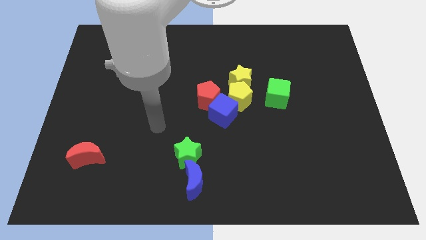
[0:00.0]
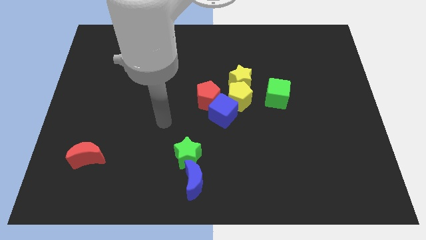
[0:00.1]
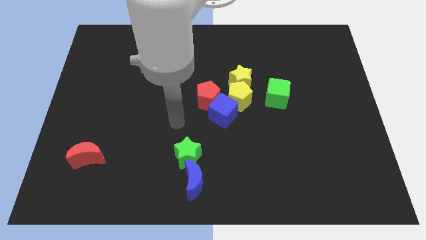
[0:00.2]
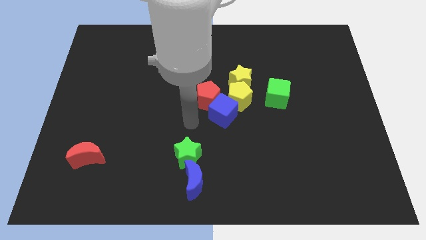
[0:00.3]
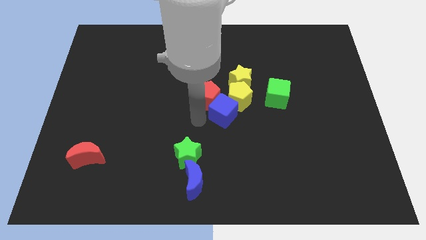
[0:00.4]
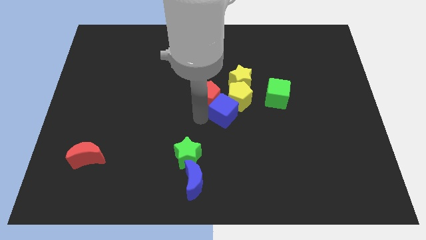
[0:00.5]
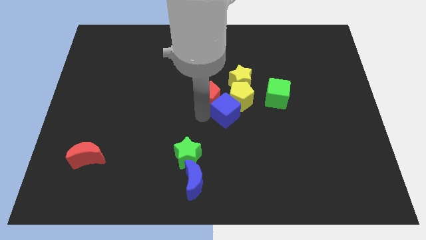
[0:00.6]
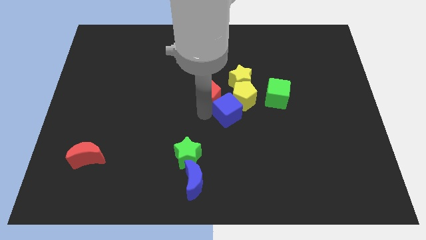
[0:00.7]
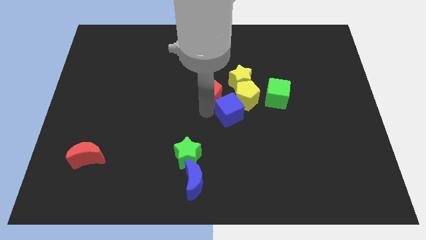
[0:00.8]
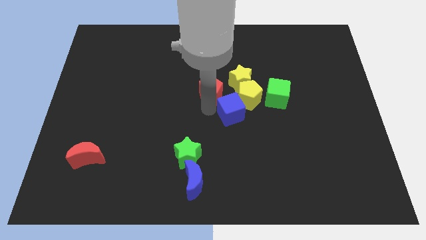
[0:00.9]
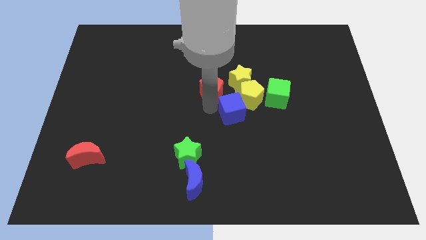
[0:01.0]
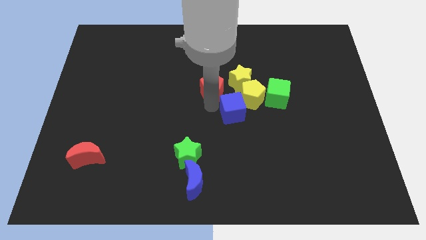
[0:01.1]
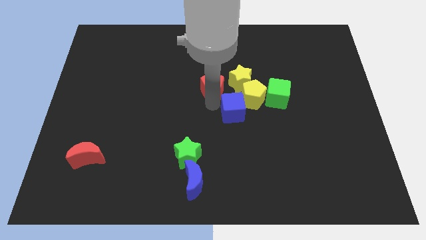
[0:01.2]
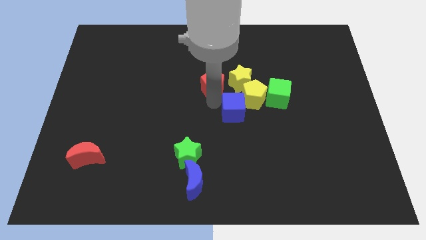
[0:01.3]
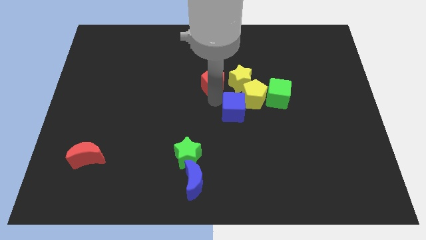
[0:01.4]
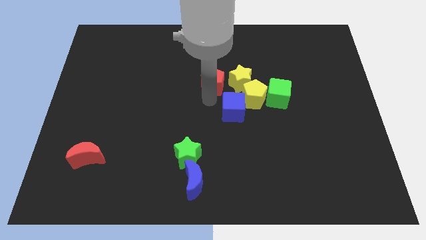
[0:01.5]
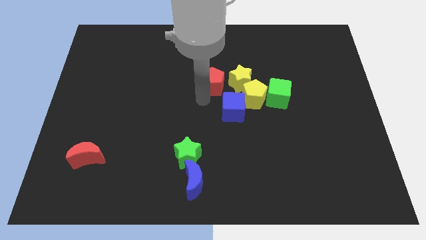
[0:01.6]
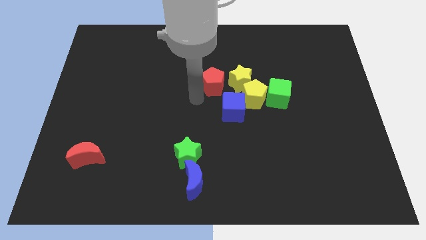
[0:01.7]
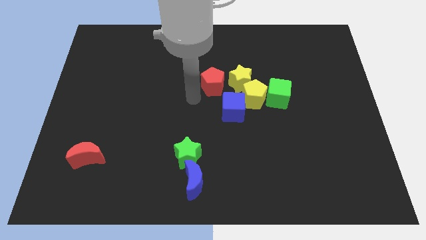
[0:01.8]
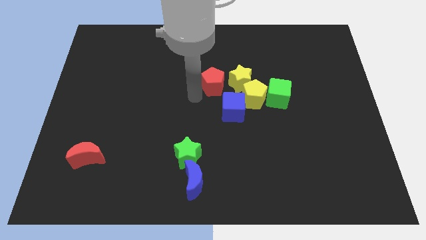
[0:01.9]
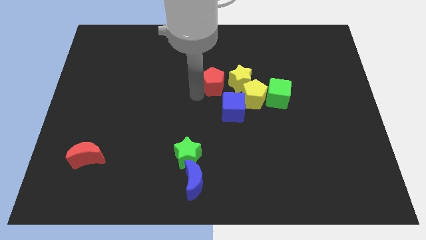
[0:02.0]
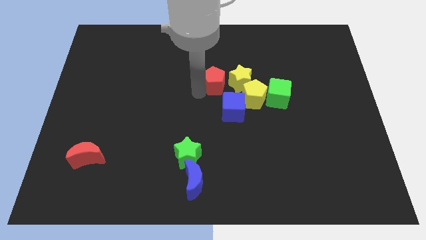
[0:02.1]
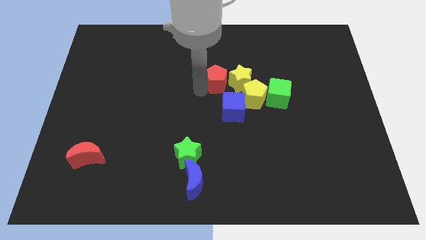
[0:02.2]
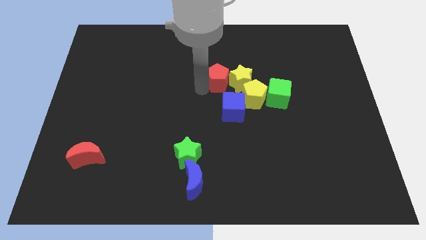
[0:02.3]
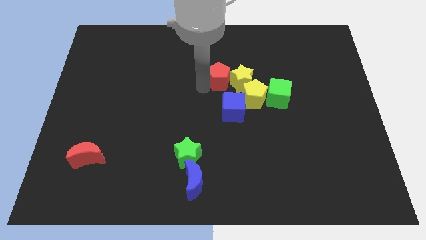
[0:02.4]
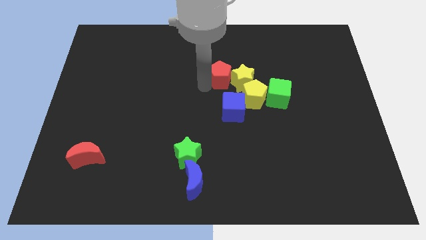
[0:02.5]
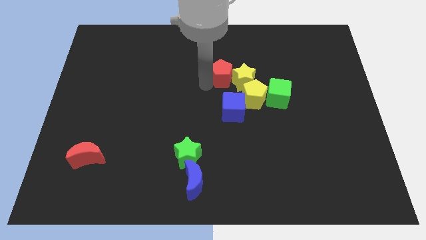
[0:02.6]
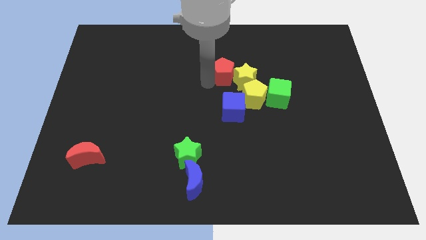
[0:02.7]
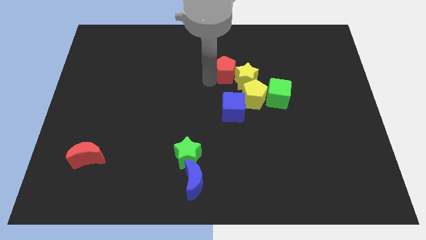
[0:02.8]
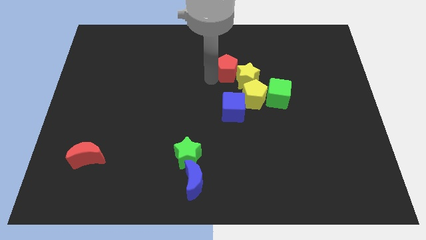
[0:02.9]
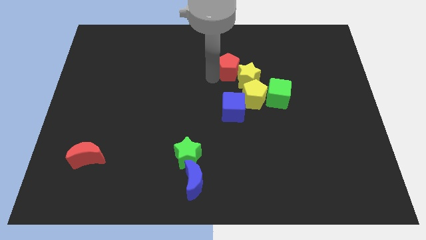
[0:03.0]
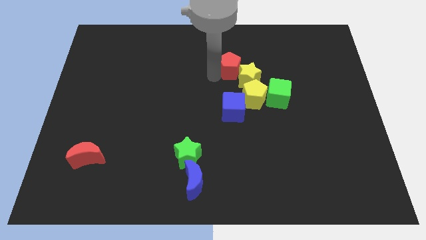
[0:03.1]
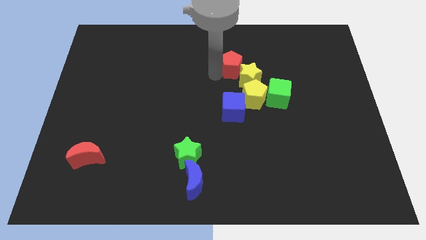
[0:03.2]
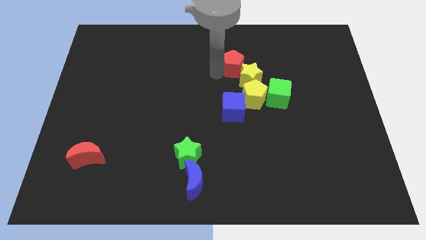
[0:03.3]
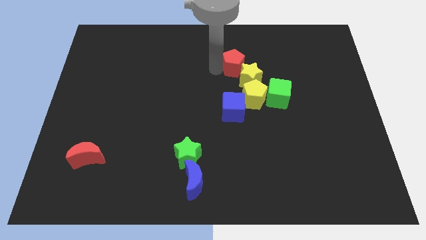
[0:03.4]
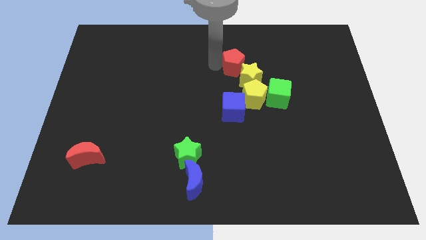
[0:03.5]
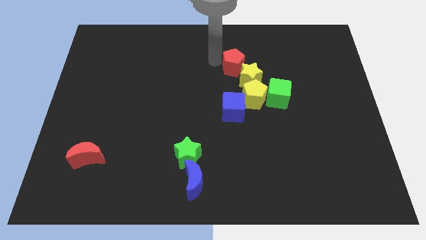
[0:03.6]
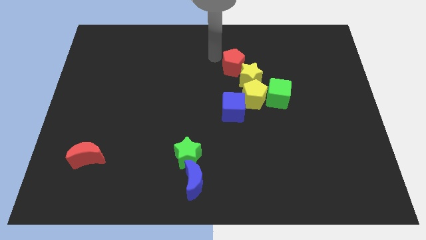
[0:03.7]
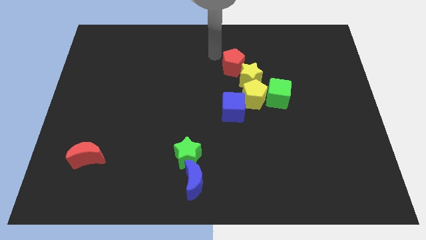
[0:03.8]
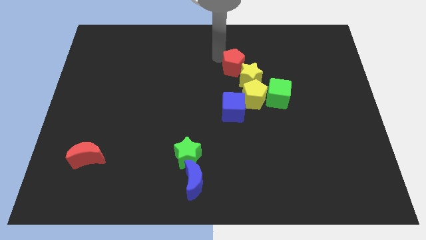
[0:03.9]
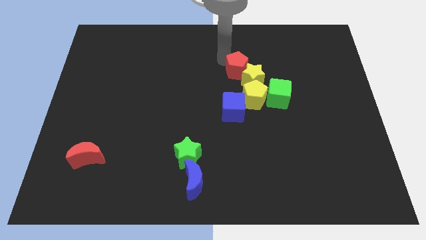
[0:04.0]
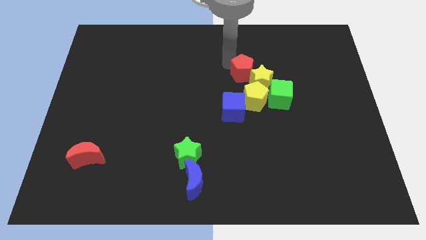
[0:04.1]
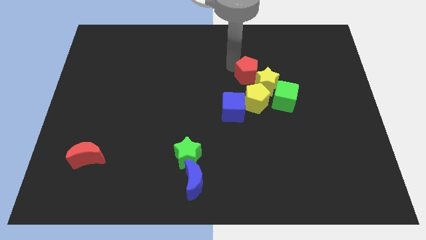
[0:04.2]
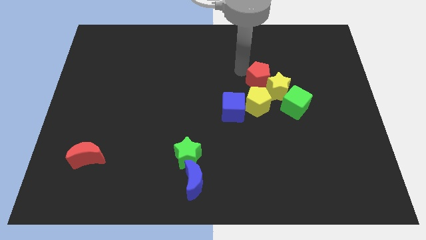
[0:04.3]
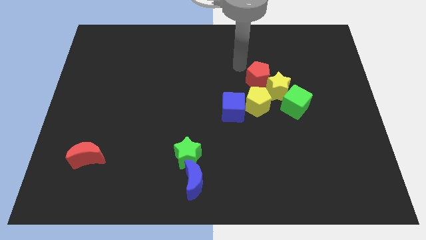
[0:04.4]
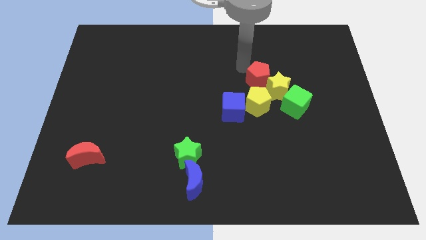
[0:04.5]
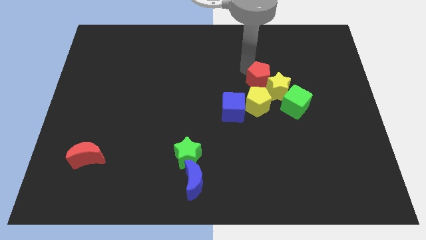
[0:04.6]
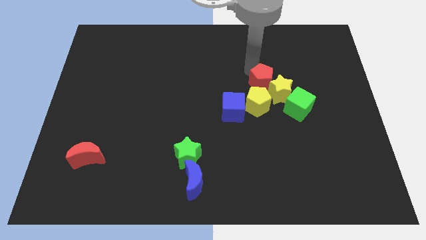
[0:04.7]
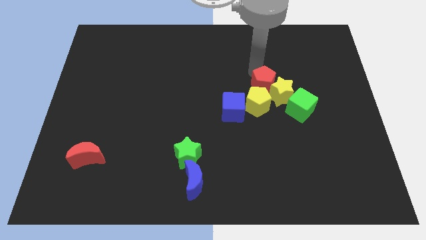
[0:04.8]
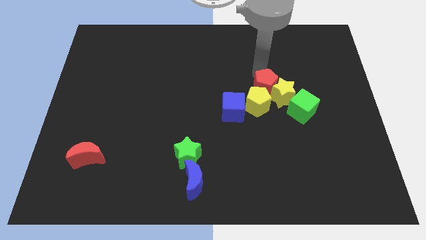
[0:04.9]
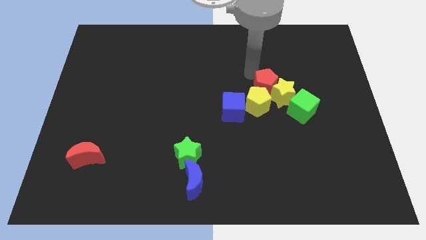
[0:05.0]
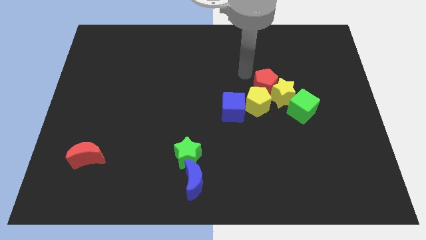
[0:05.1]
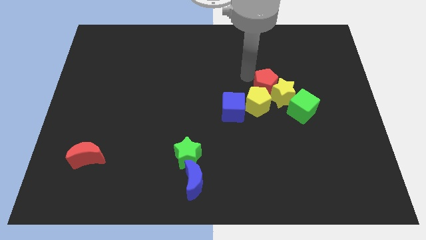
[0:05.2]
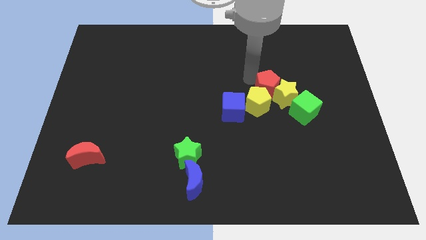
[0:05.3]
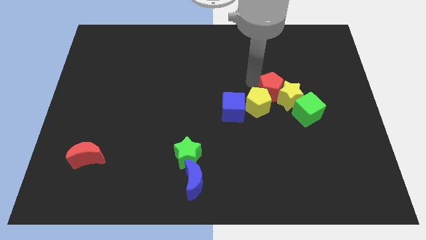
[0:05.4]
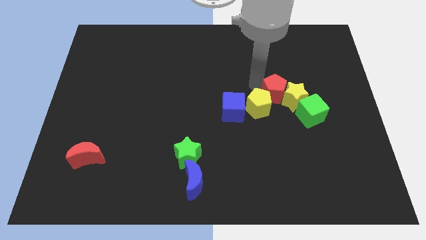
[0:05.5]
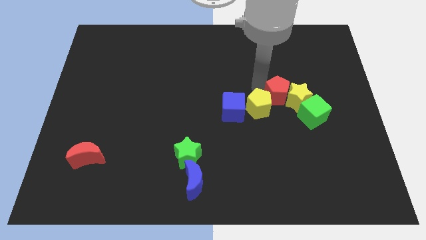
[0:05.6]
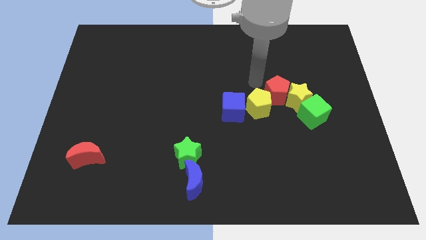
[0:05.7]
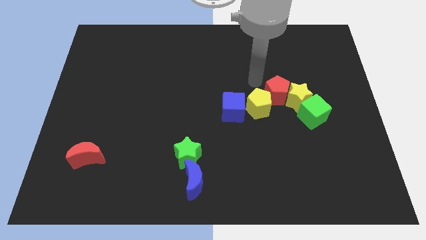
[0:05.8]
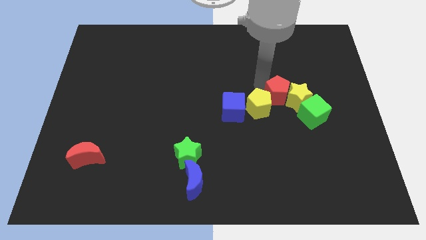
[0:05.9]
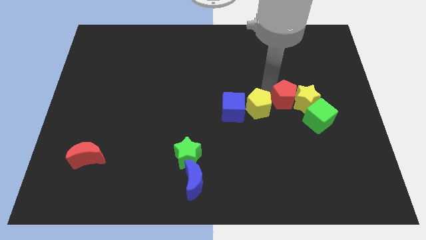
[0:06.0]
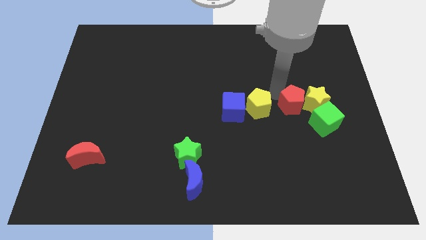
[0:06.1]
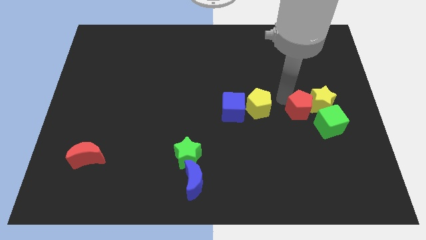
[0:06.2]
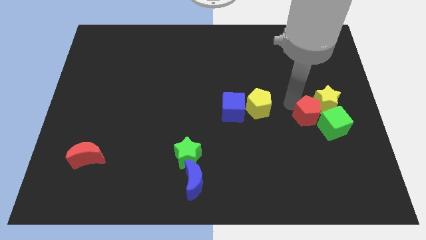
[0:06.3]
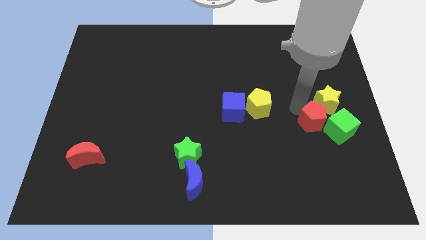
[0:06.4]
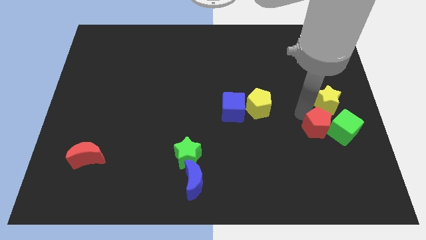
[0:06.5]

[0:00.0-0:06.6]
push the red pentagon towards the green cube

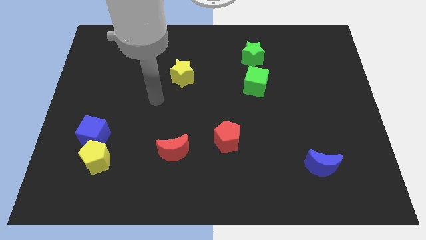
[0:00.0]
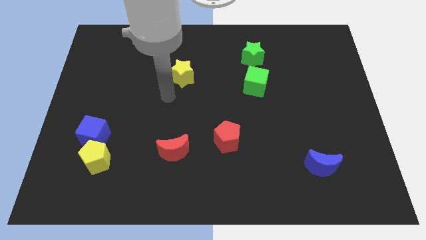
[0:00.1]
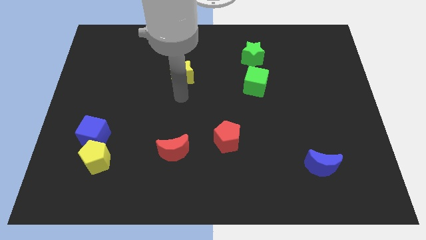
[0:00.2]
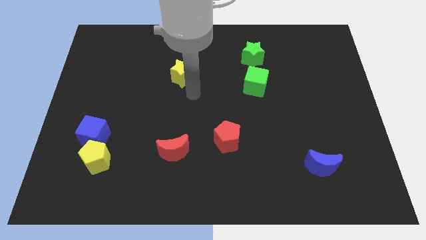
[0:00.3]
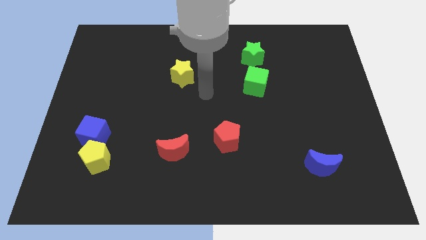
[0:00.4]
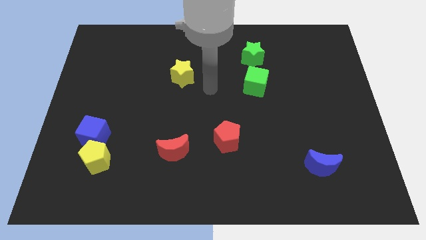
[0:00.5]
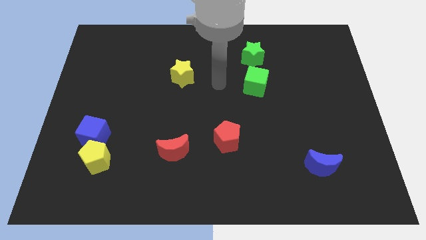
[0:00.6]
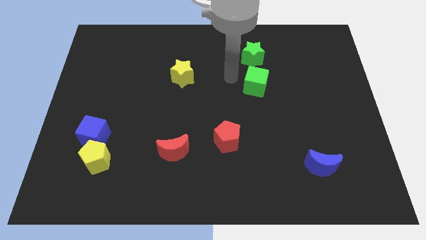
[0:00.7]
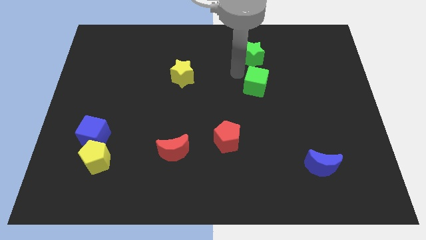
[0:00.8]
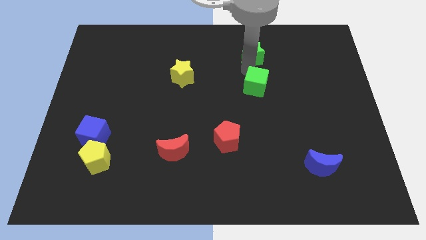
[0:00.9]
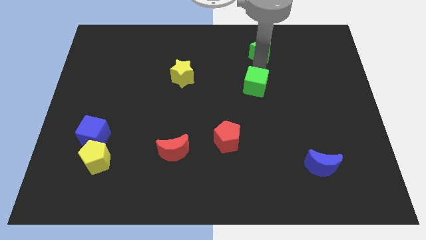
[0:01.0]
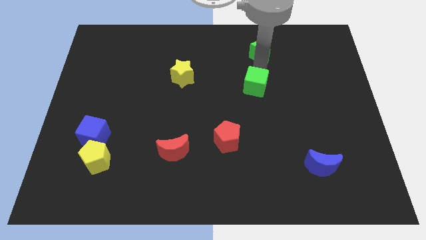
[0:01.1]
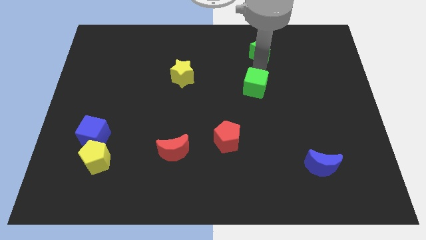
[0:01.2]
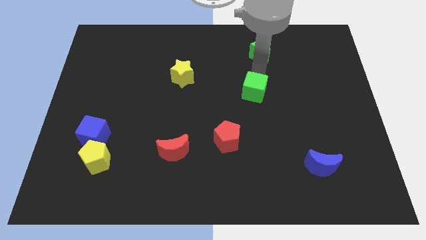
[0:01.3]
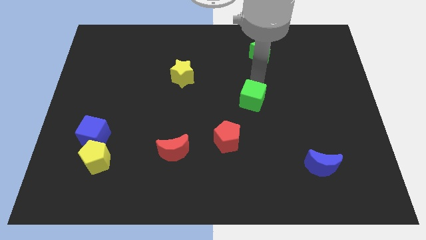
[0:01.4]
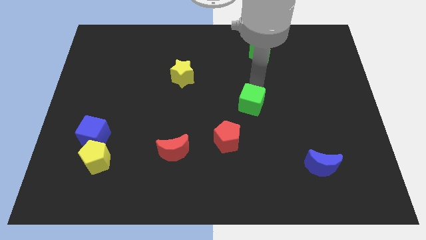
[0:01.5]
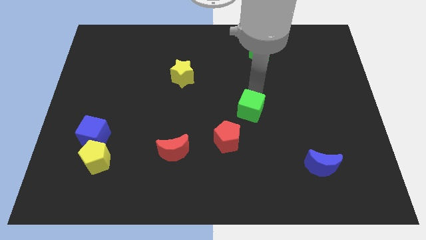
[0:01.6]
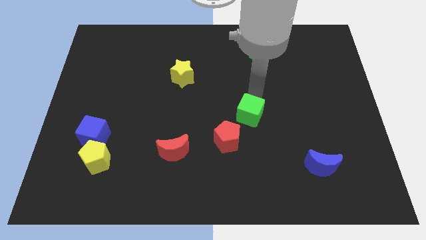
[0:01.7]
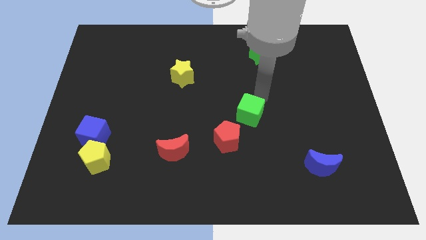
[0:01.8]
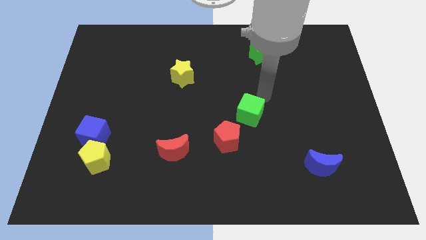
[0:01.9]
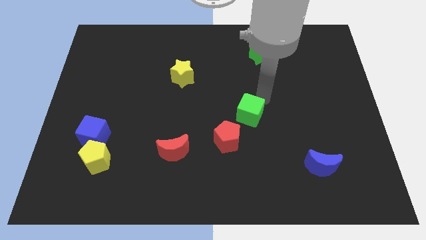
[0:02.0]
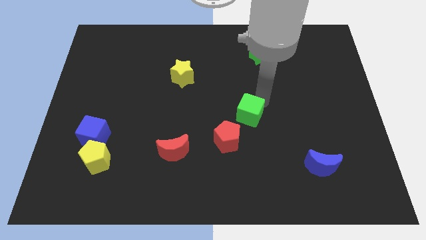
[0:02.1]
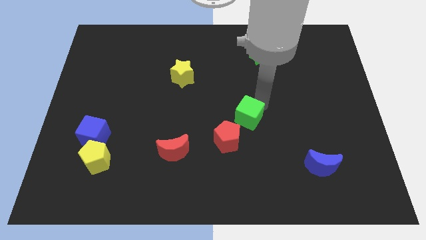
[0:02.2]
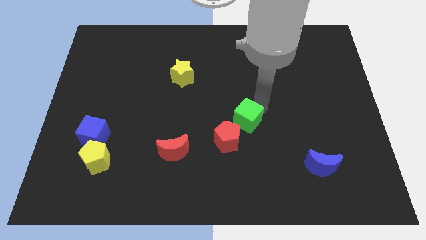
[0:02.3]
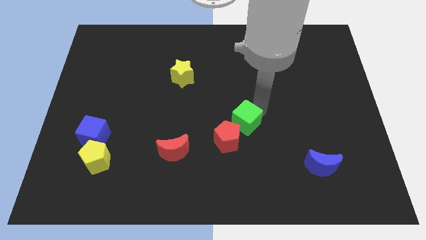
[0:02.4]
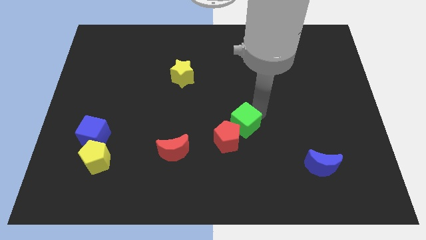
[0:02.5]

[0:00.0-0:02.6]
put the green cube towards the red pentagon
